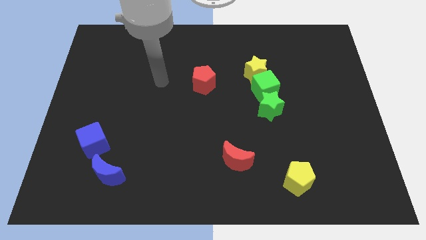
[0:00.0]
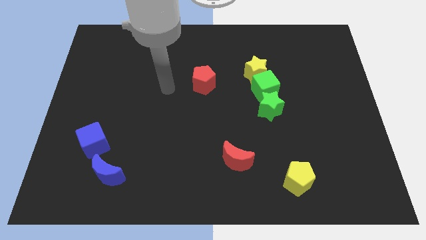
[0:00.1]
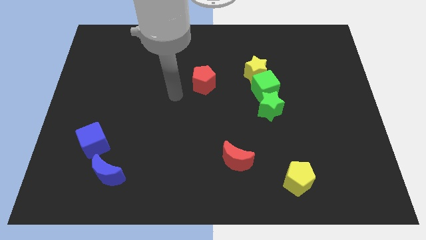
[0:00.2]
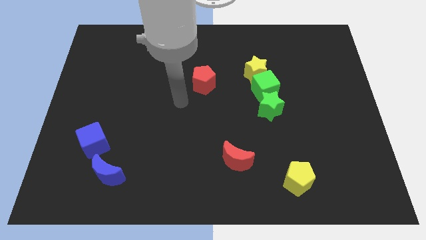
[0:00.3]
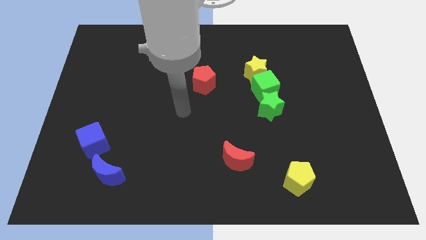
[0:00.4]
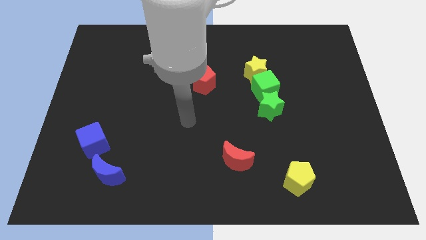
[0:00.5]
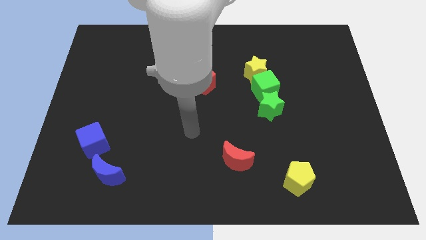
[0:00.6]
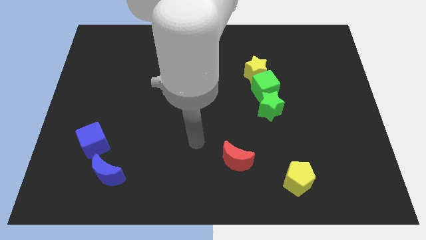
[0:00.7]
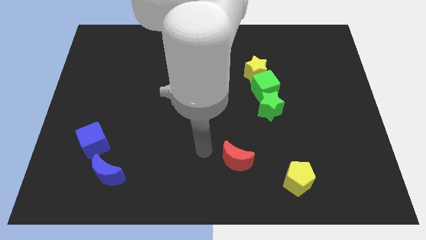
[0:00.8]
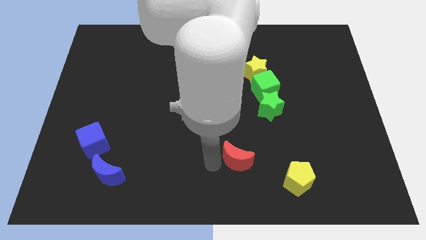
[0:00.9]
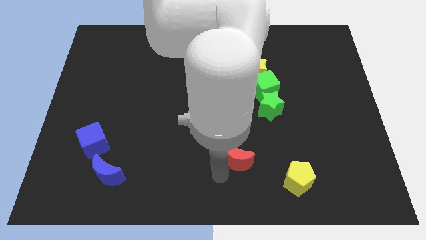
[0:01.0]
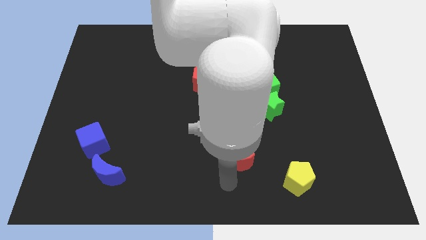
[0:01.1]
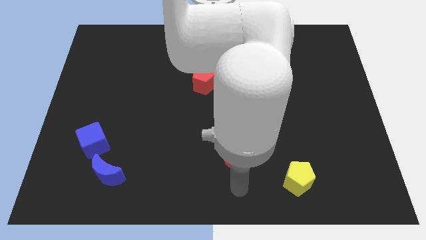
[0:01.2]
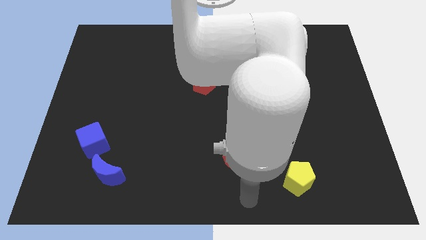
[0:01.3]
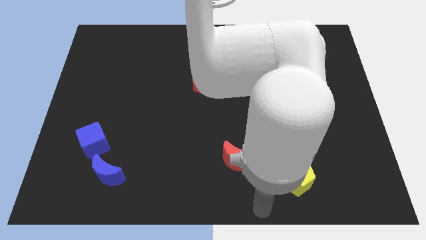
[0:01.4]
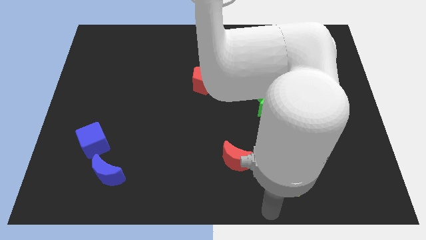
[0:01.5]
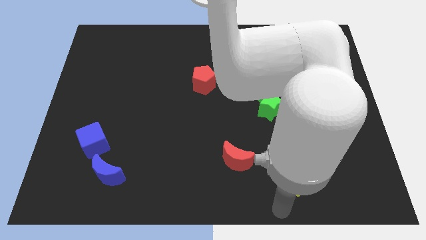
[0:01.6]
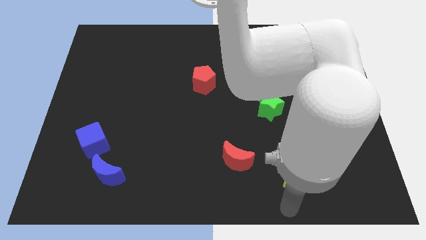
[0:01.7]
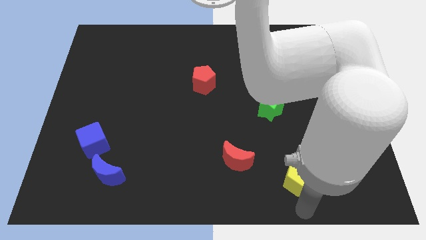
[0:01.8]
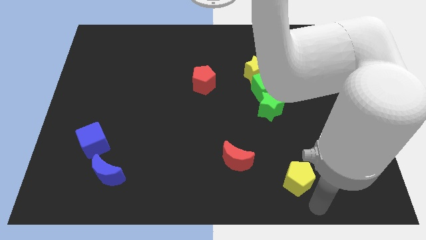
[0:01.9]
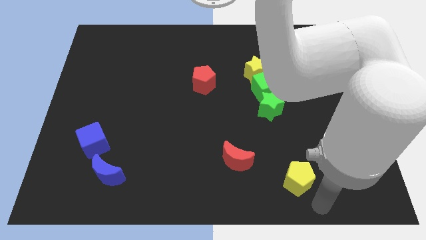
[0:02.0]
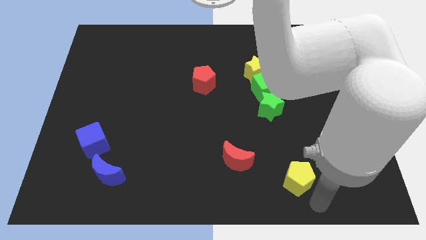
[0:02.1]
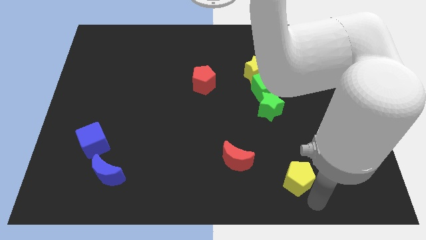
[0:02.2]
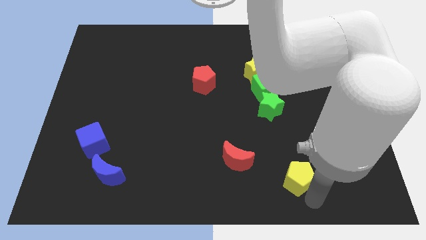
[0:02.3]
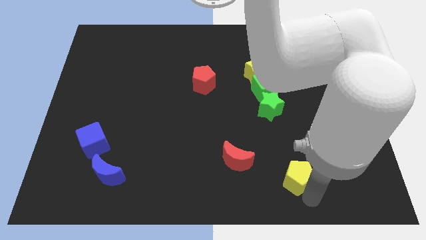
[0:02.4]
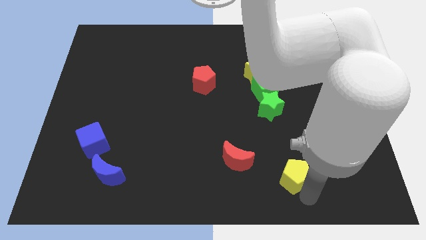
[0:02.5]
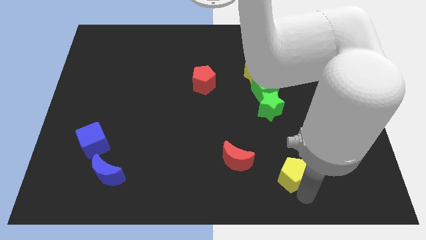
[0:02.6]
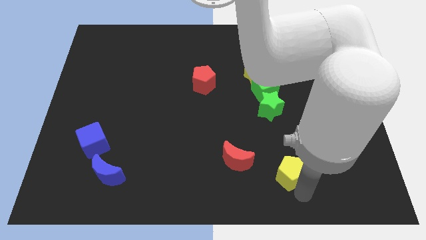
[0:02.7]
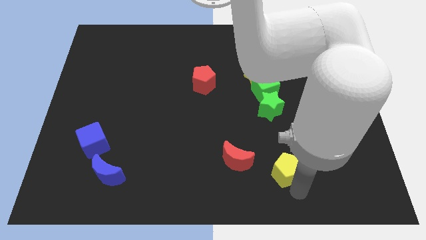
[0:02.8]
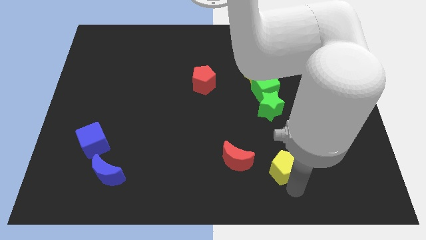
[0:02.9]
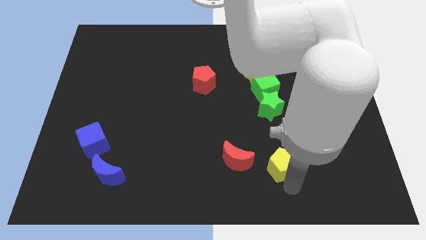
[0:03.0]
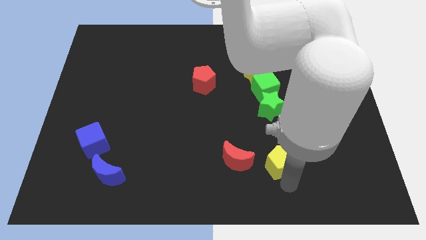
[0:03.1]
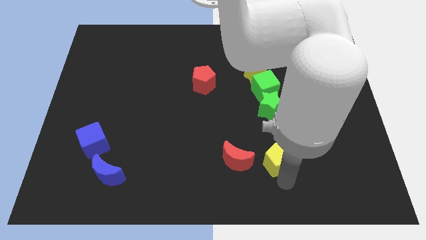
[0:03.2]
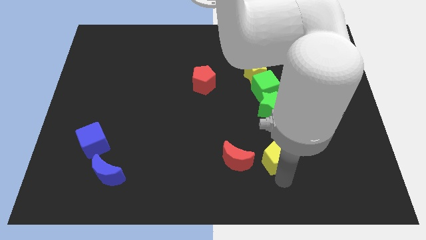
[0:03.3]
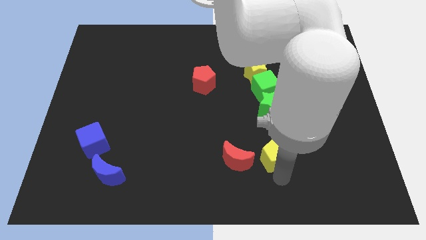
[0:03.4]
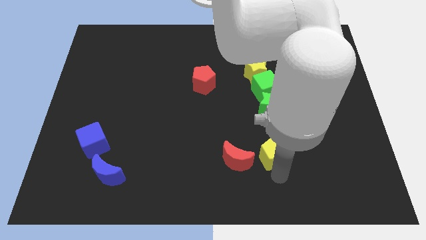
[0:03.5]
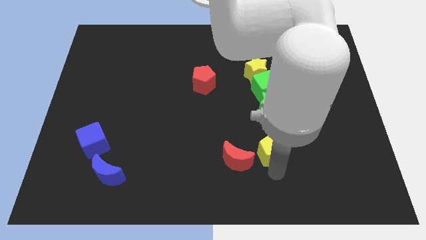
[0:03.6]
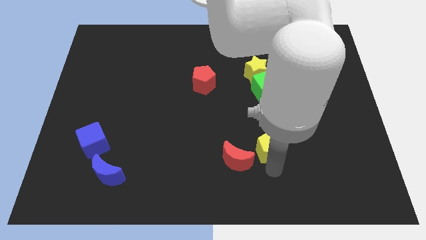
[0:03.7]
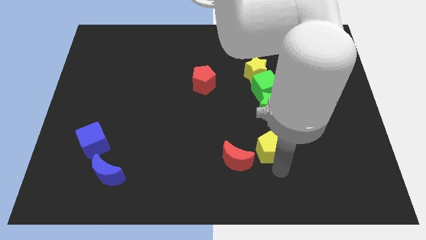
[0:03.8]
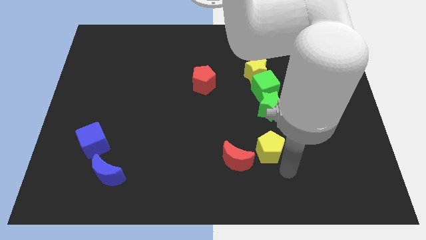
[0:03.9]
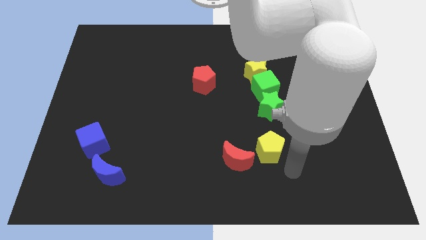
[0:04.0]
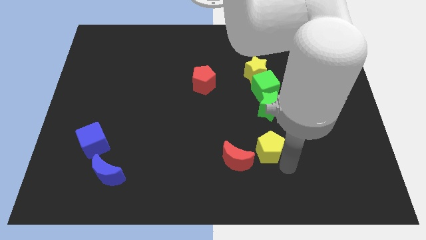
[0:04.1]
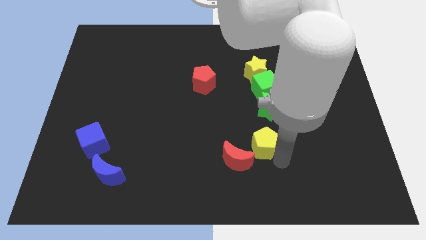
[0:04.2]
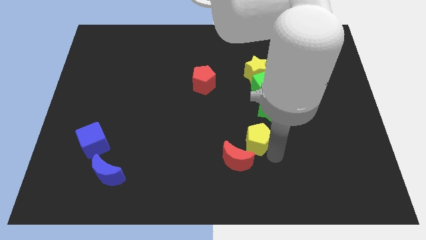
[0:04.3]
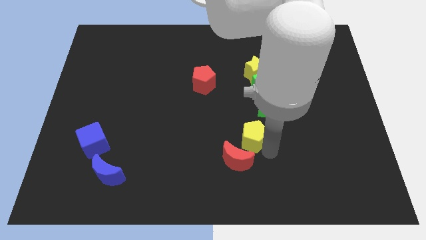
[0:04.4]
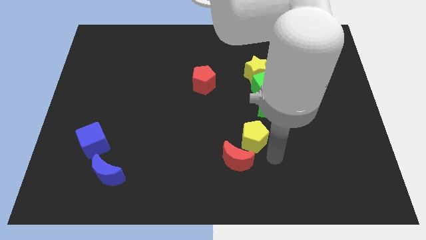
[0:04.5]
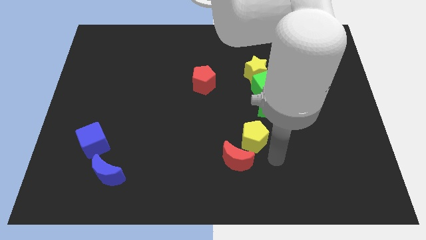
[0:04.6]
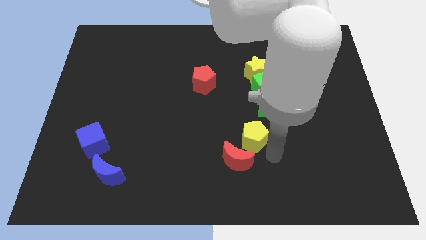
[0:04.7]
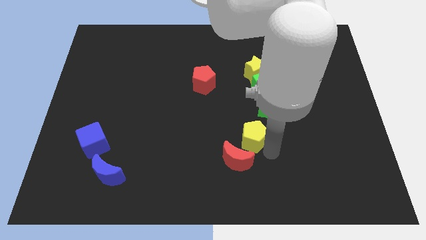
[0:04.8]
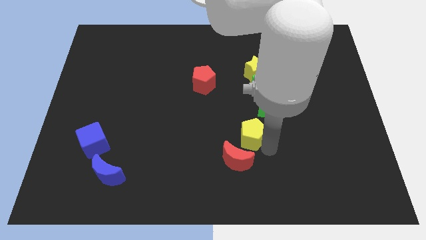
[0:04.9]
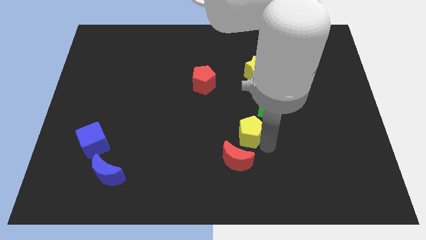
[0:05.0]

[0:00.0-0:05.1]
move the yellow pentagon to the middle of the board
